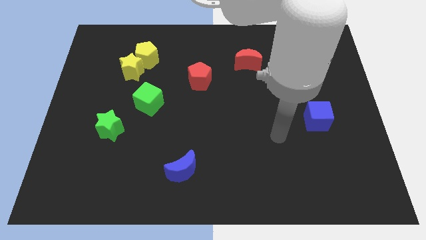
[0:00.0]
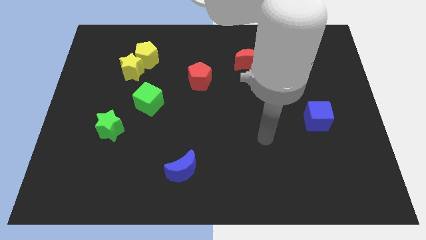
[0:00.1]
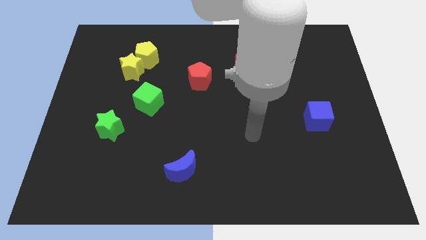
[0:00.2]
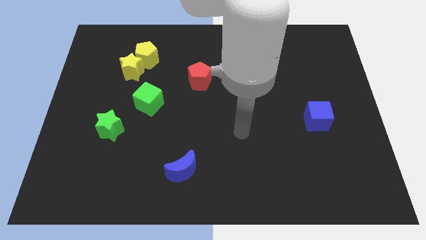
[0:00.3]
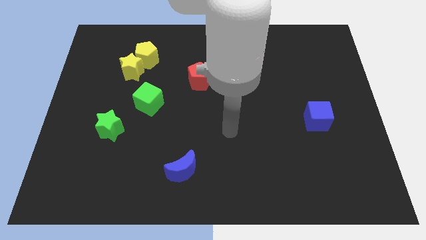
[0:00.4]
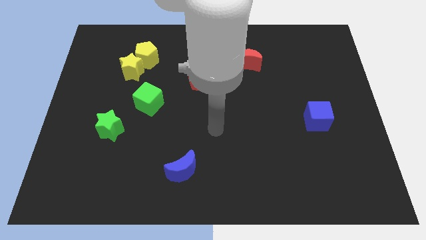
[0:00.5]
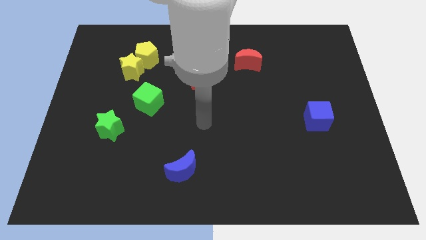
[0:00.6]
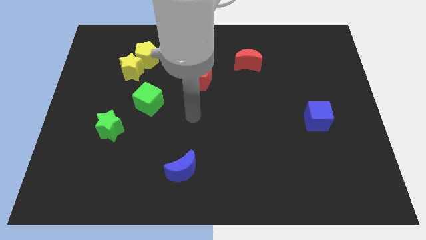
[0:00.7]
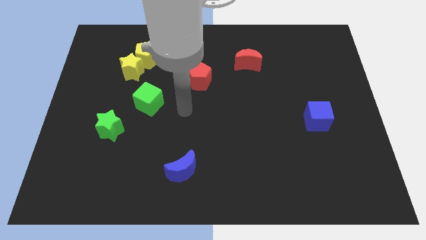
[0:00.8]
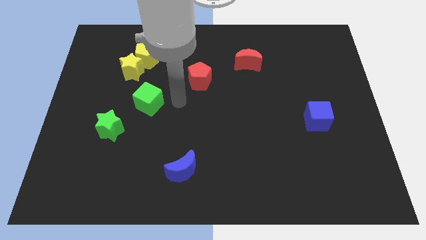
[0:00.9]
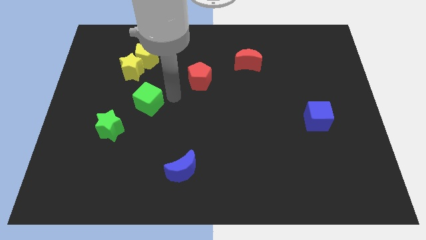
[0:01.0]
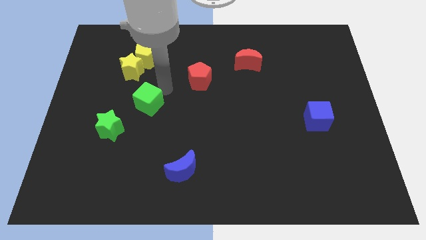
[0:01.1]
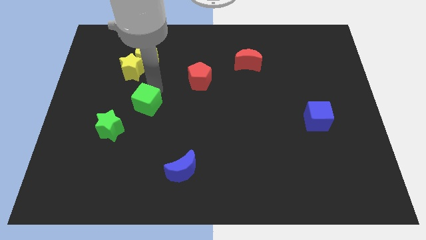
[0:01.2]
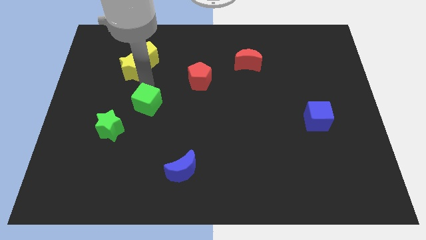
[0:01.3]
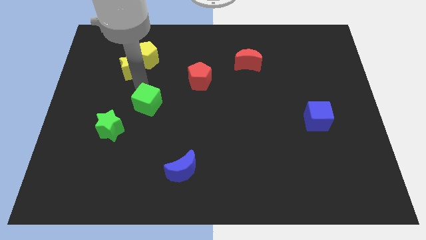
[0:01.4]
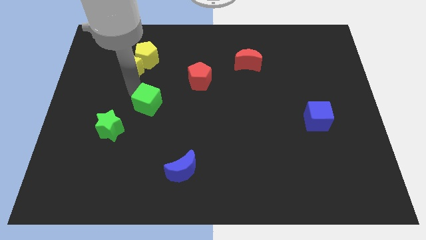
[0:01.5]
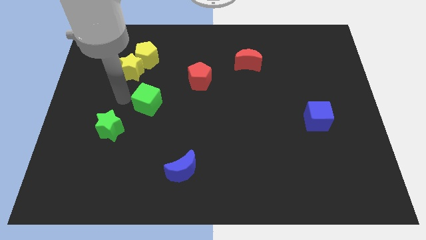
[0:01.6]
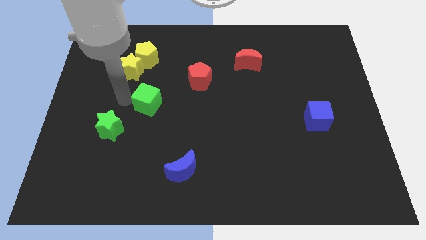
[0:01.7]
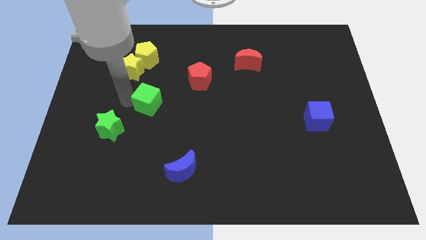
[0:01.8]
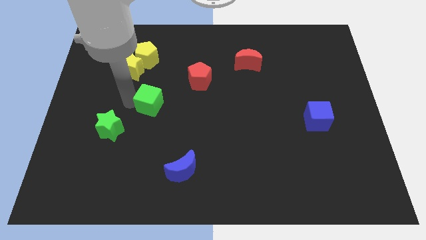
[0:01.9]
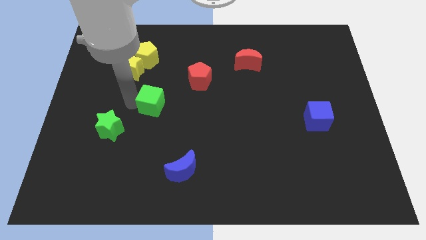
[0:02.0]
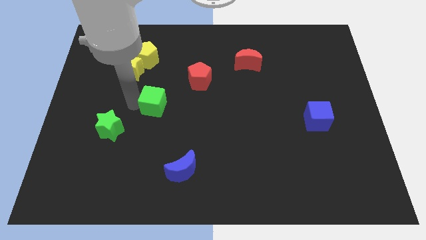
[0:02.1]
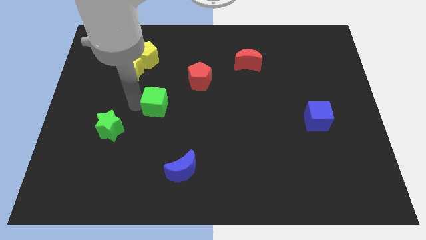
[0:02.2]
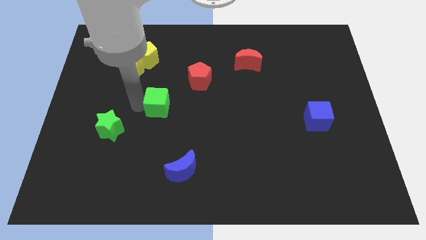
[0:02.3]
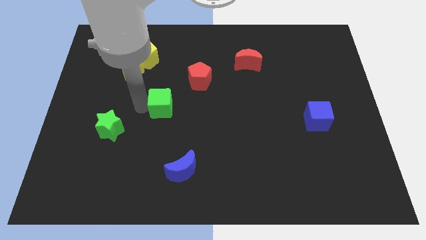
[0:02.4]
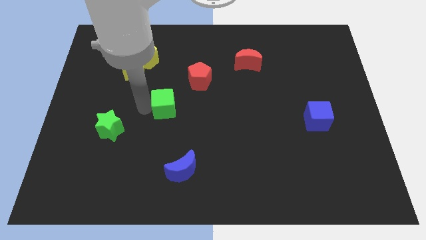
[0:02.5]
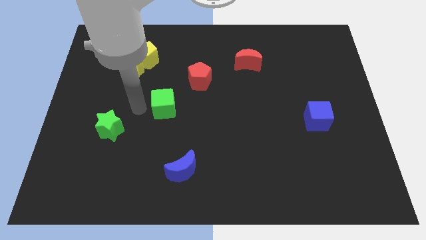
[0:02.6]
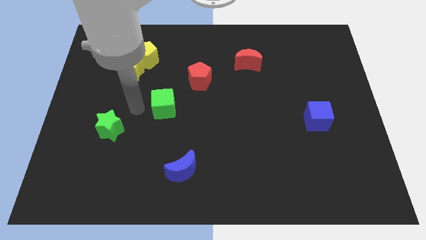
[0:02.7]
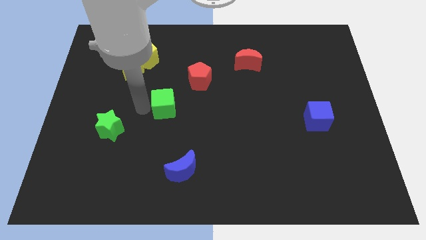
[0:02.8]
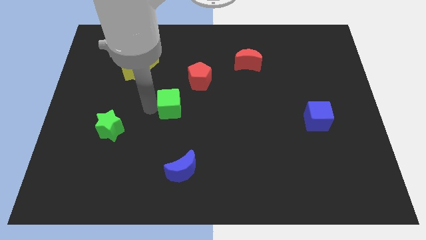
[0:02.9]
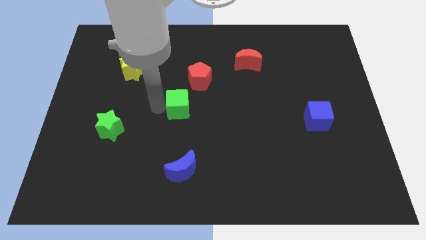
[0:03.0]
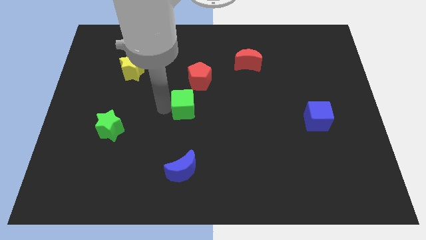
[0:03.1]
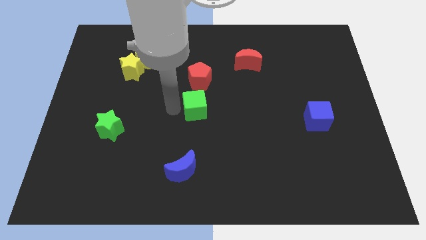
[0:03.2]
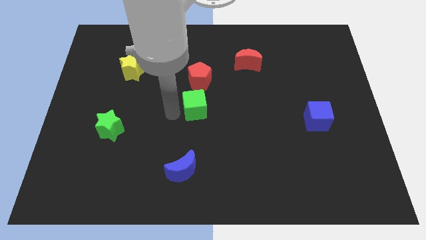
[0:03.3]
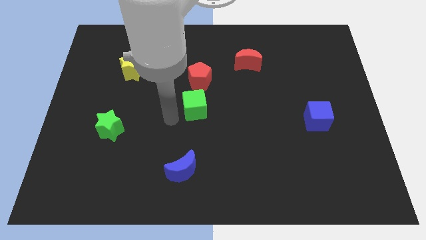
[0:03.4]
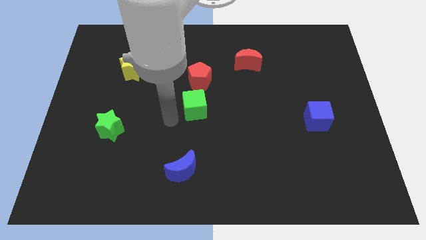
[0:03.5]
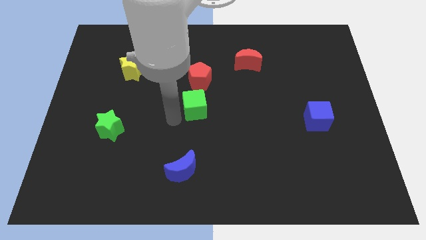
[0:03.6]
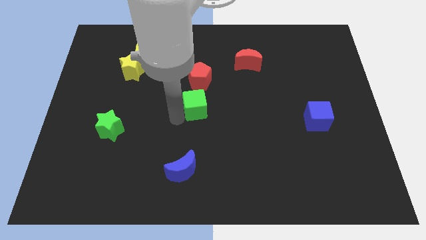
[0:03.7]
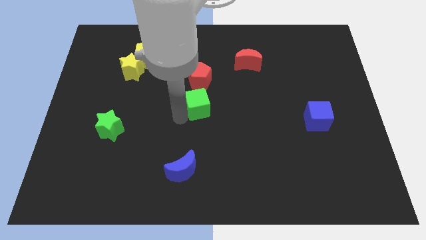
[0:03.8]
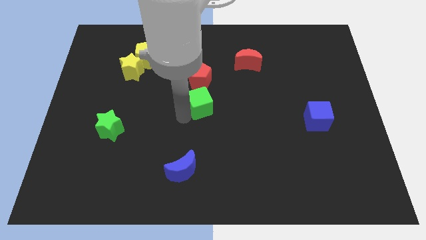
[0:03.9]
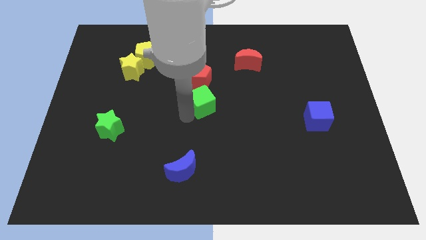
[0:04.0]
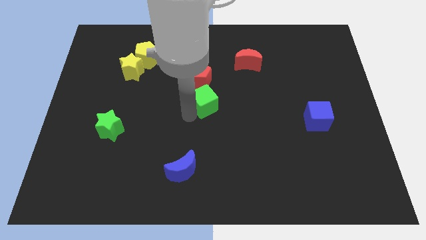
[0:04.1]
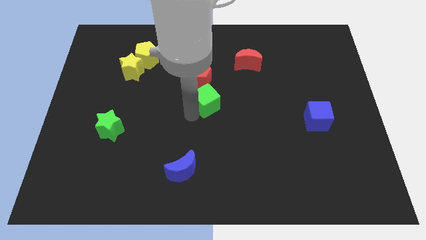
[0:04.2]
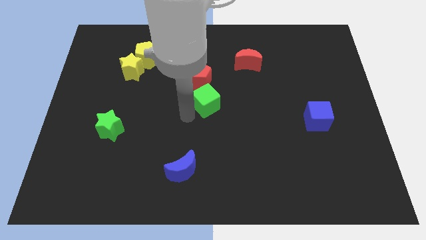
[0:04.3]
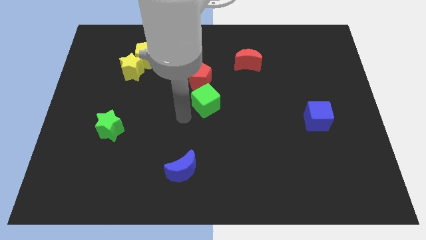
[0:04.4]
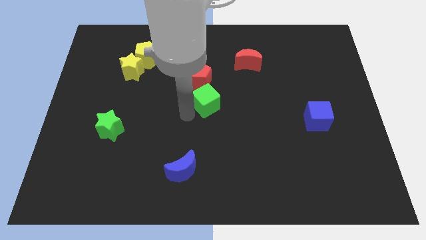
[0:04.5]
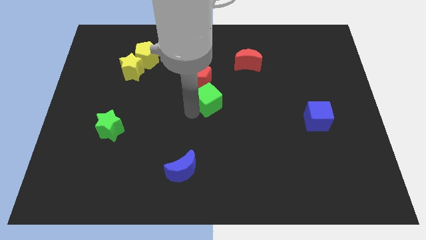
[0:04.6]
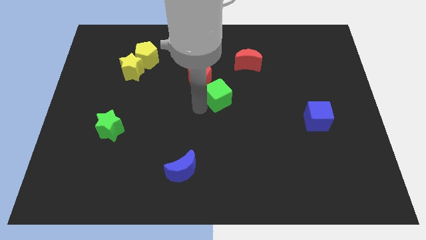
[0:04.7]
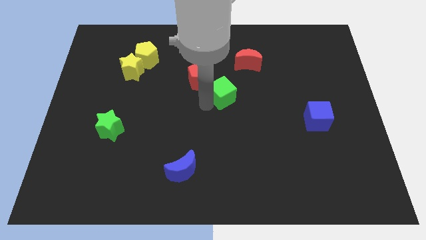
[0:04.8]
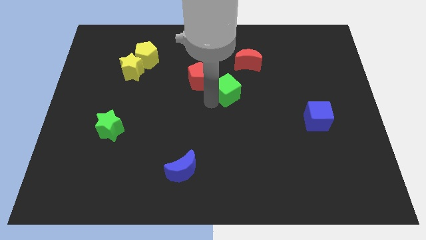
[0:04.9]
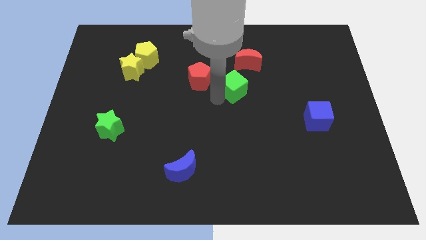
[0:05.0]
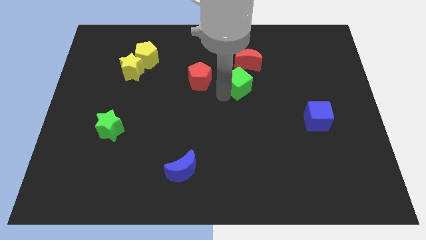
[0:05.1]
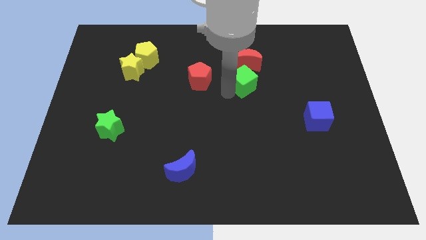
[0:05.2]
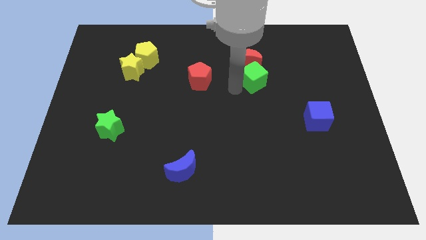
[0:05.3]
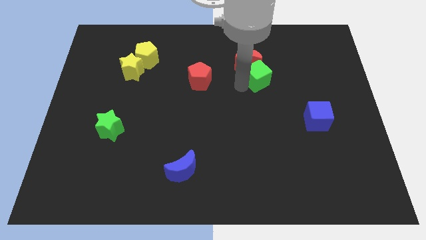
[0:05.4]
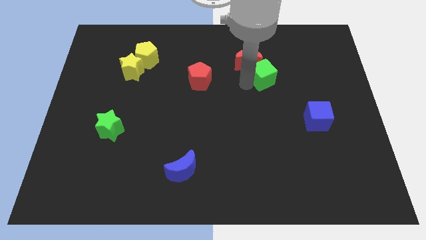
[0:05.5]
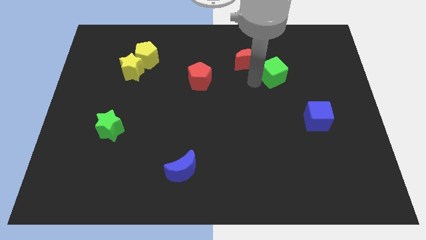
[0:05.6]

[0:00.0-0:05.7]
push the green cube to the right of the red moon
